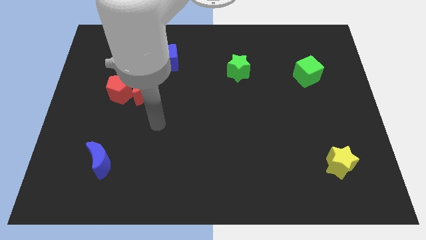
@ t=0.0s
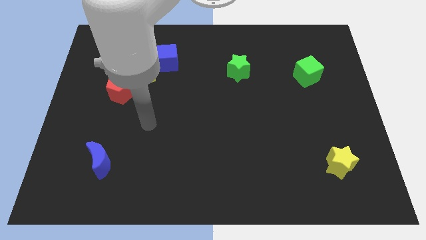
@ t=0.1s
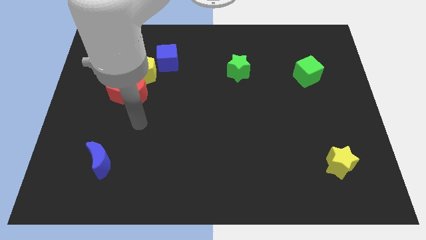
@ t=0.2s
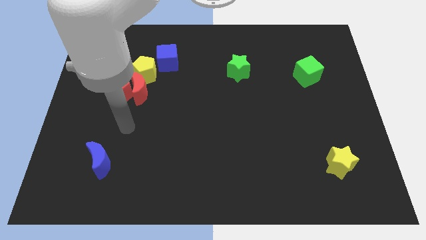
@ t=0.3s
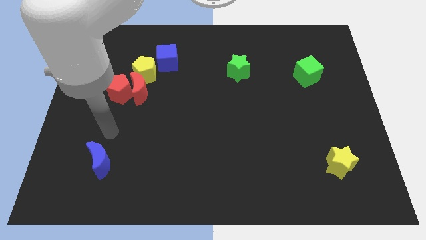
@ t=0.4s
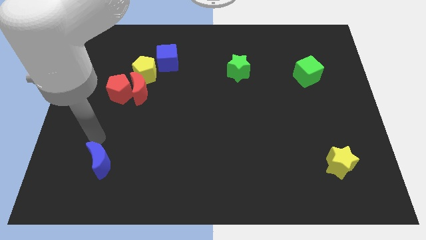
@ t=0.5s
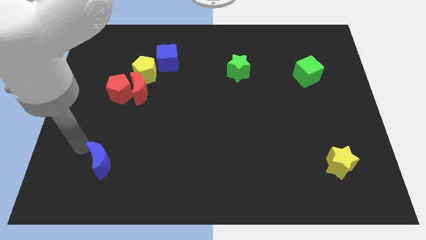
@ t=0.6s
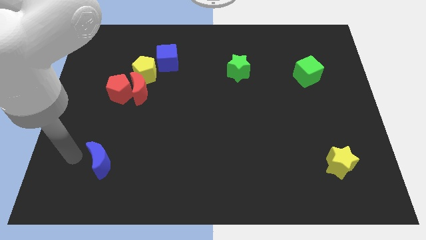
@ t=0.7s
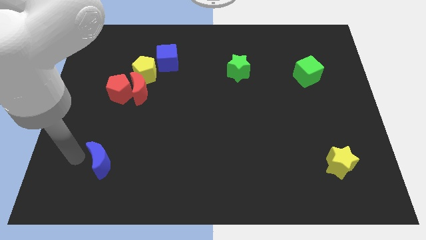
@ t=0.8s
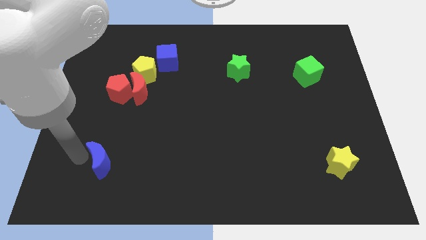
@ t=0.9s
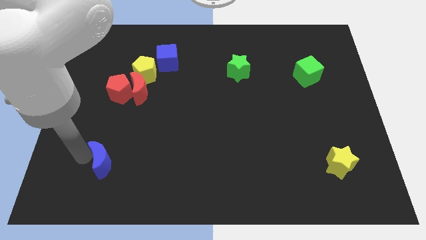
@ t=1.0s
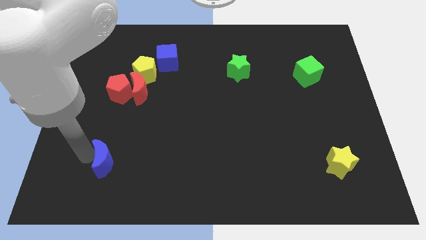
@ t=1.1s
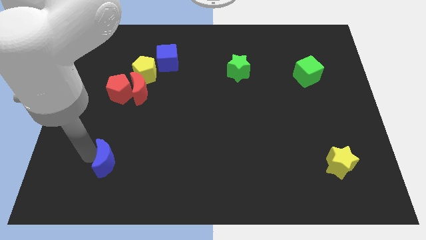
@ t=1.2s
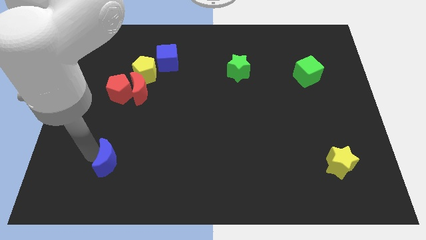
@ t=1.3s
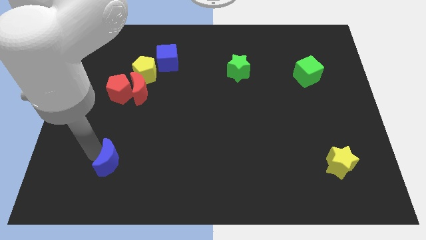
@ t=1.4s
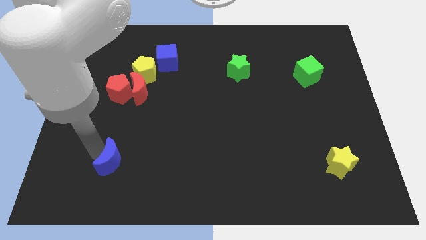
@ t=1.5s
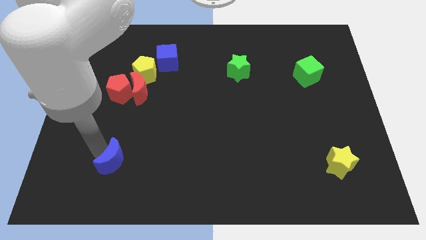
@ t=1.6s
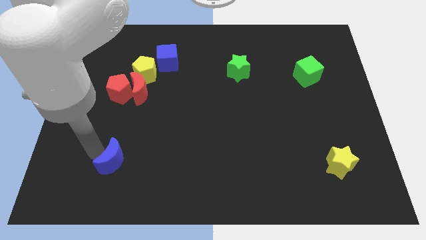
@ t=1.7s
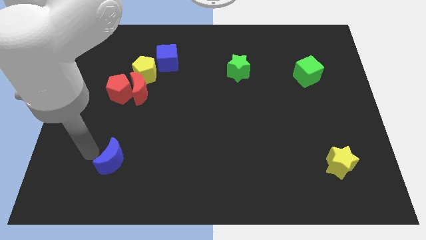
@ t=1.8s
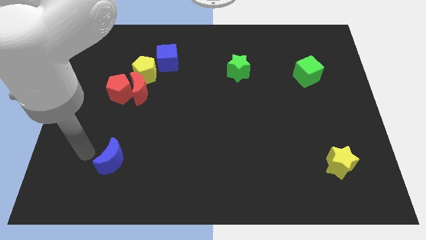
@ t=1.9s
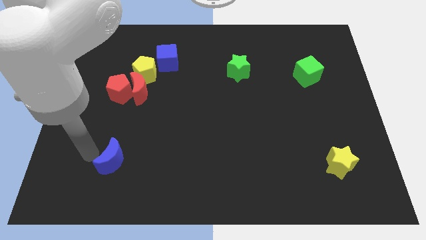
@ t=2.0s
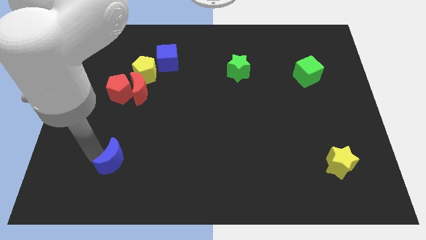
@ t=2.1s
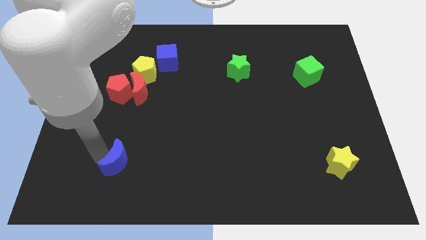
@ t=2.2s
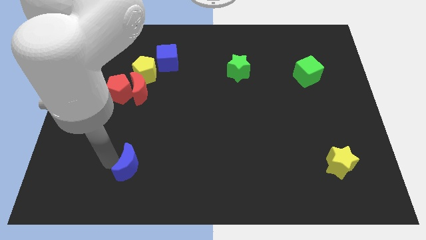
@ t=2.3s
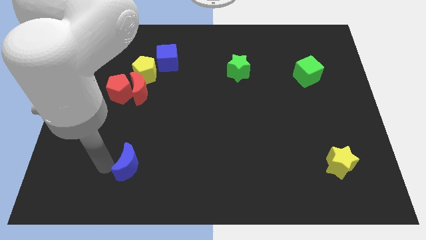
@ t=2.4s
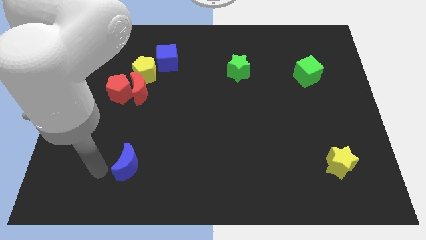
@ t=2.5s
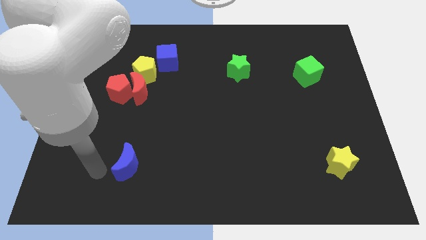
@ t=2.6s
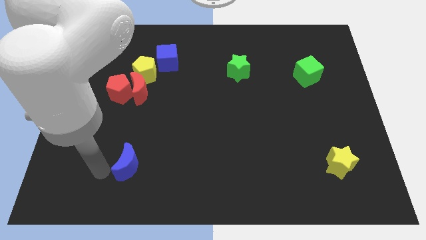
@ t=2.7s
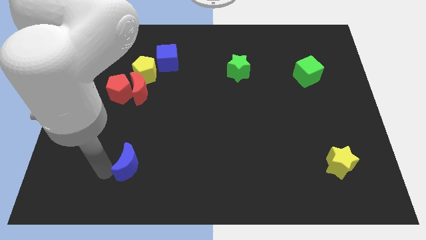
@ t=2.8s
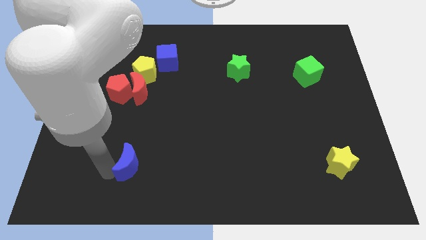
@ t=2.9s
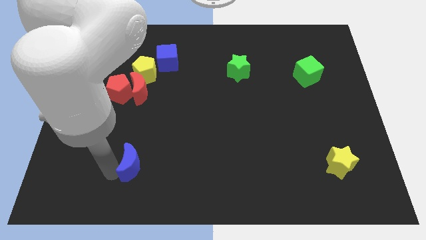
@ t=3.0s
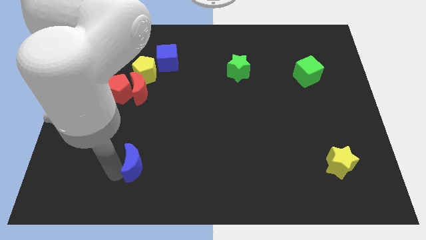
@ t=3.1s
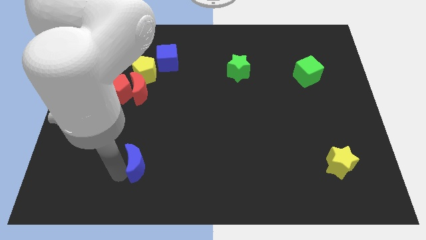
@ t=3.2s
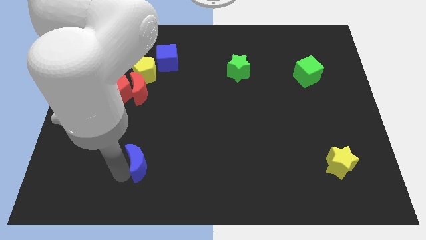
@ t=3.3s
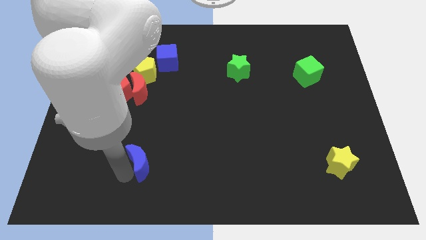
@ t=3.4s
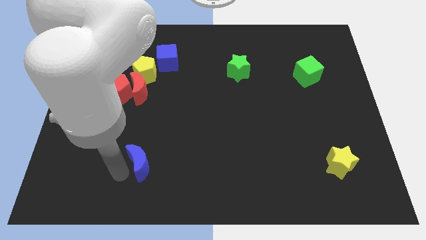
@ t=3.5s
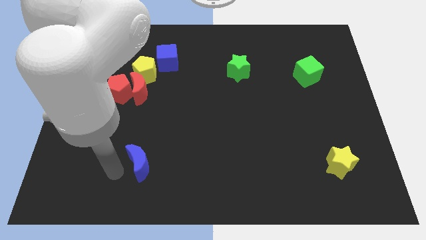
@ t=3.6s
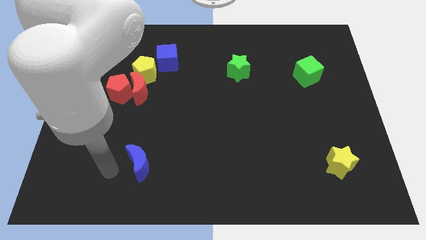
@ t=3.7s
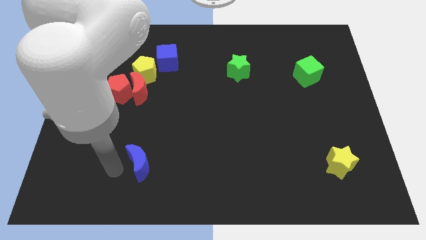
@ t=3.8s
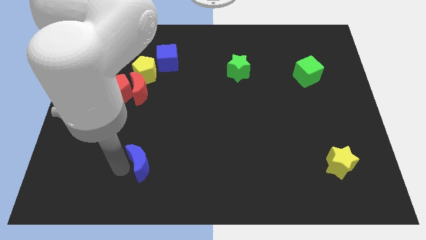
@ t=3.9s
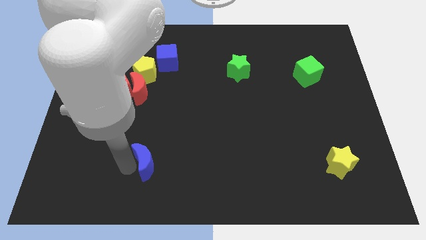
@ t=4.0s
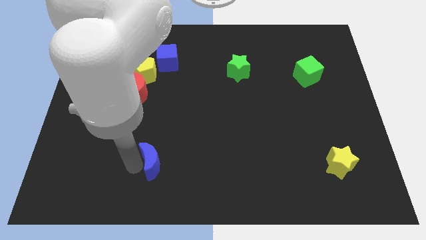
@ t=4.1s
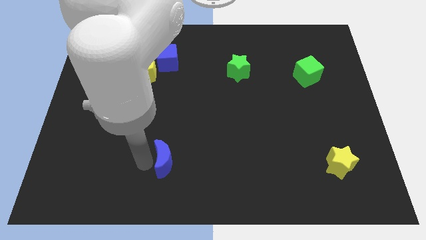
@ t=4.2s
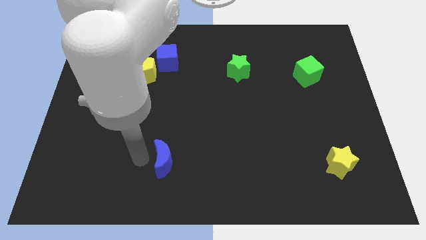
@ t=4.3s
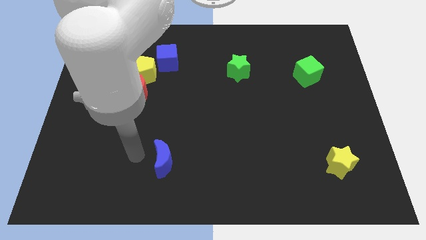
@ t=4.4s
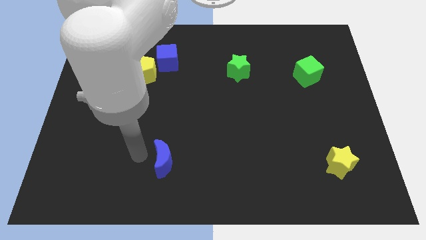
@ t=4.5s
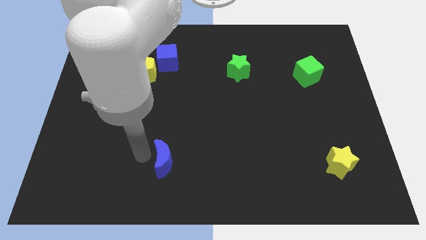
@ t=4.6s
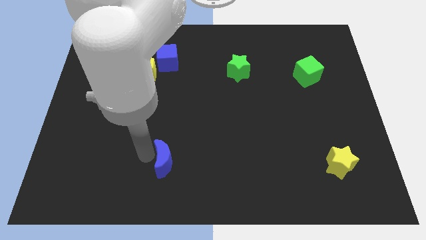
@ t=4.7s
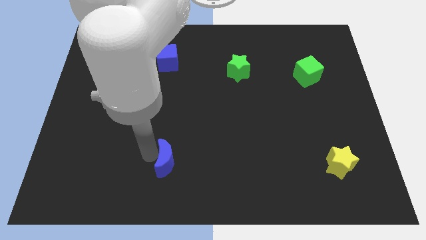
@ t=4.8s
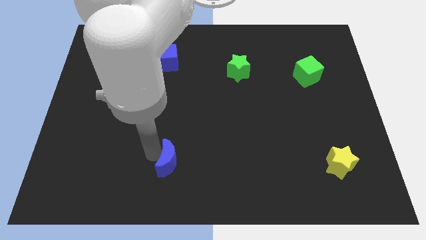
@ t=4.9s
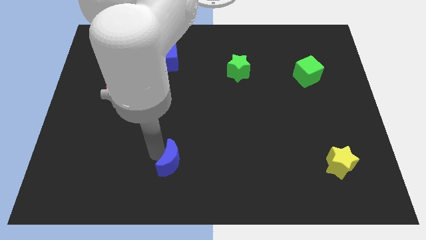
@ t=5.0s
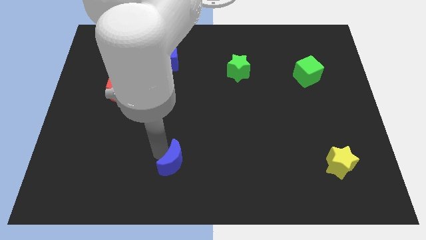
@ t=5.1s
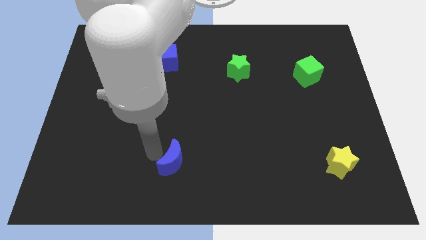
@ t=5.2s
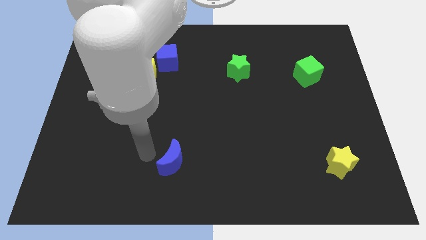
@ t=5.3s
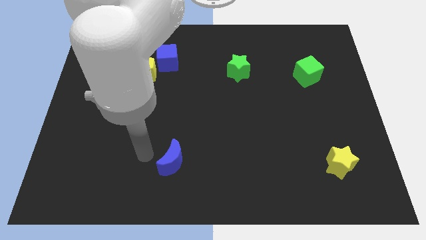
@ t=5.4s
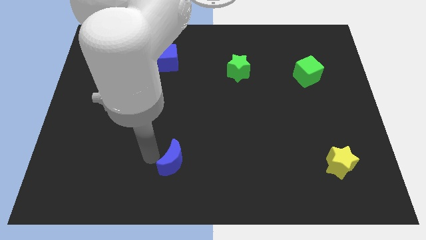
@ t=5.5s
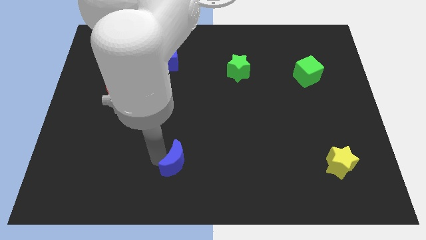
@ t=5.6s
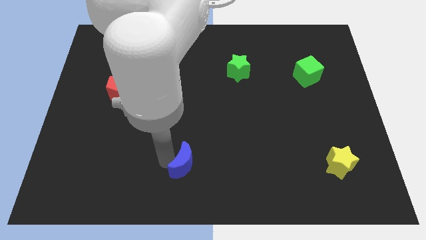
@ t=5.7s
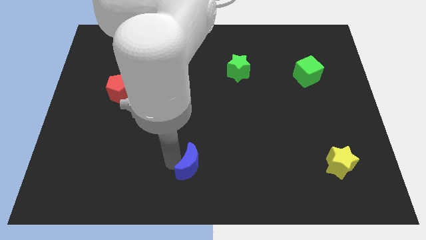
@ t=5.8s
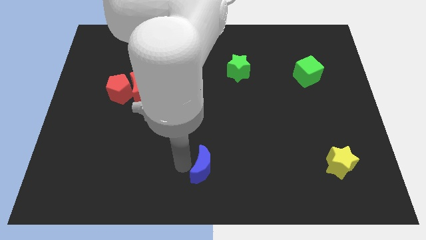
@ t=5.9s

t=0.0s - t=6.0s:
move the blue moon to the right

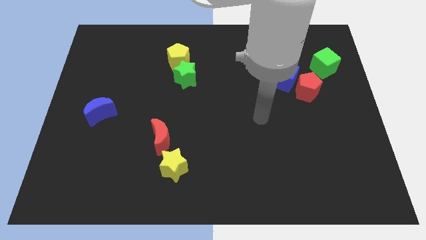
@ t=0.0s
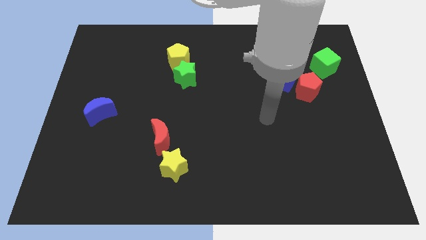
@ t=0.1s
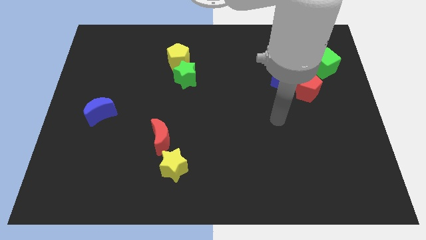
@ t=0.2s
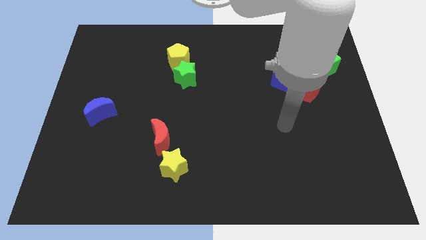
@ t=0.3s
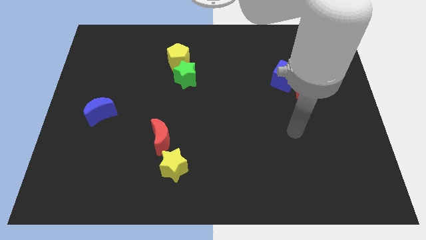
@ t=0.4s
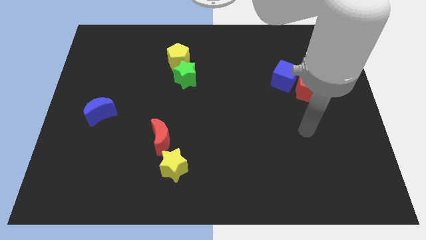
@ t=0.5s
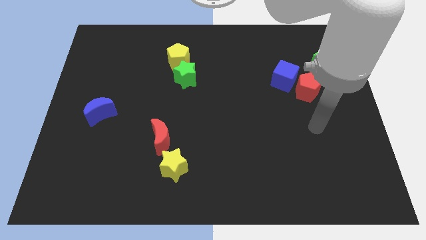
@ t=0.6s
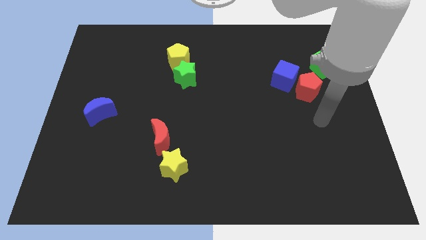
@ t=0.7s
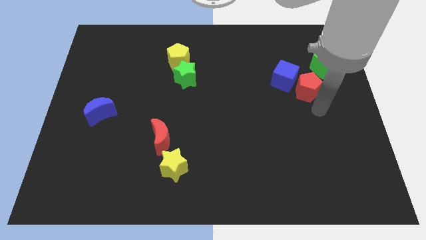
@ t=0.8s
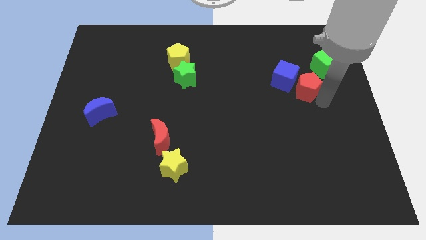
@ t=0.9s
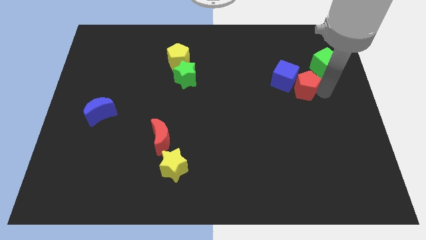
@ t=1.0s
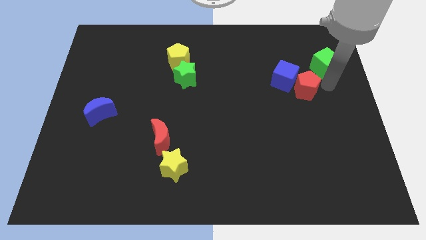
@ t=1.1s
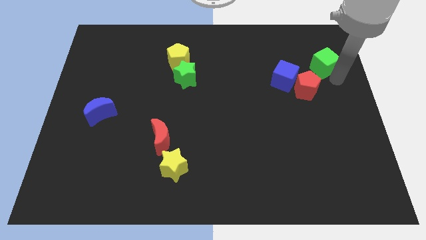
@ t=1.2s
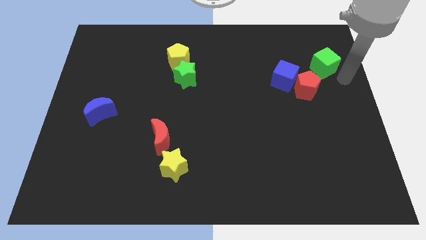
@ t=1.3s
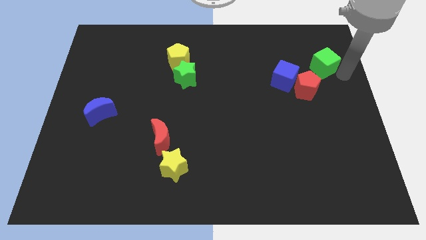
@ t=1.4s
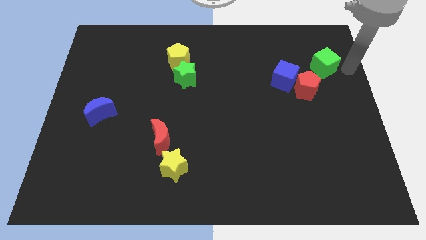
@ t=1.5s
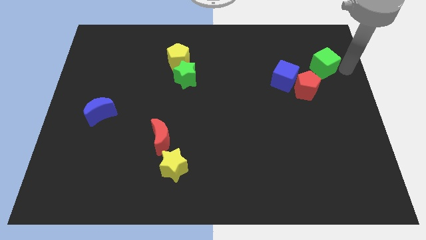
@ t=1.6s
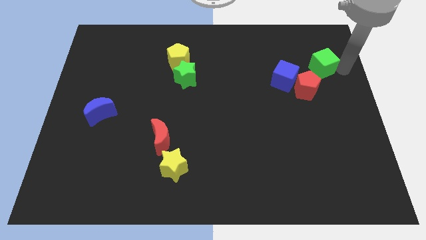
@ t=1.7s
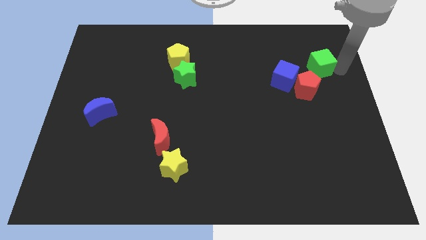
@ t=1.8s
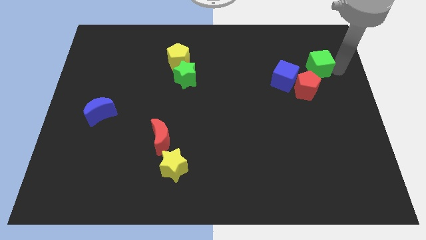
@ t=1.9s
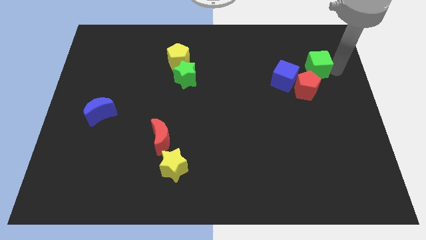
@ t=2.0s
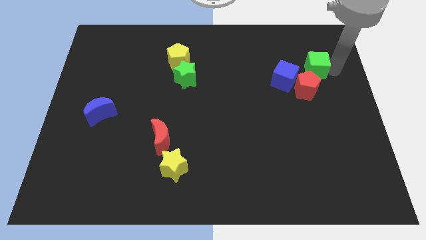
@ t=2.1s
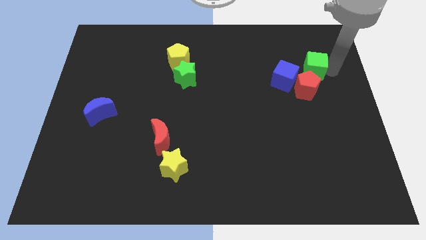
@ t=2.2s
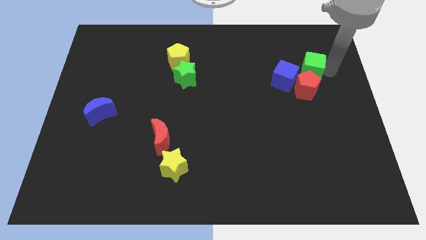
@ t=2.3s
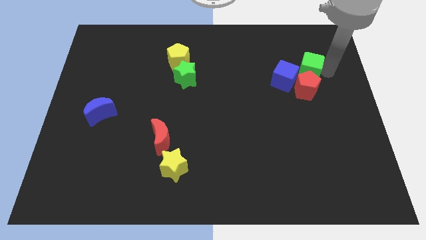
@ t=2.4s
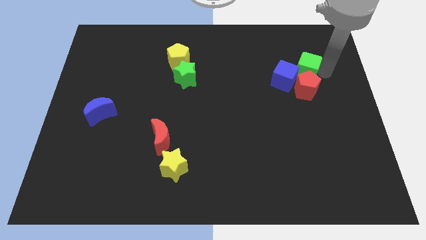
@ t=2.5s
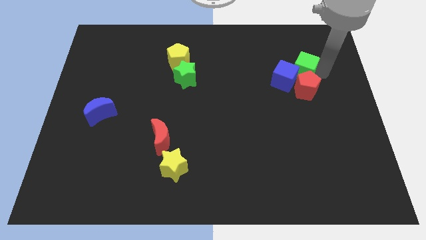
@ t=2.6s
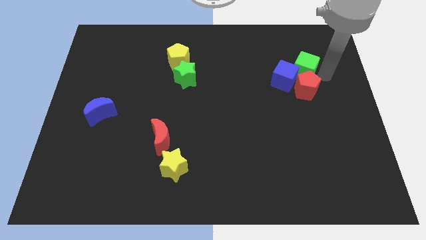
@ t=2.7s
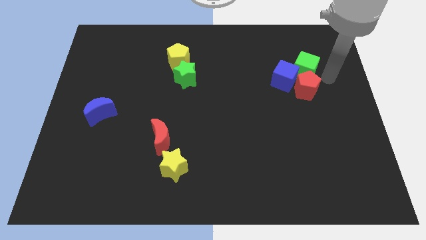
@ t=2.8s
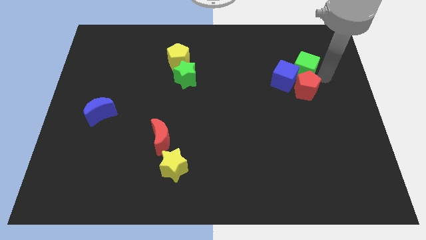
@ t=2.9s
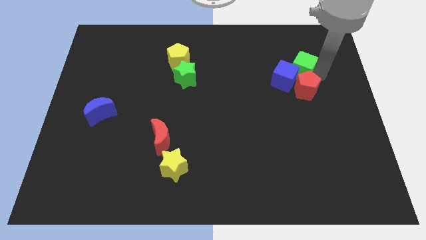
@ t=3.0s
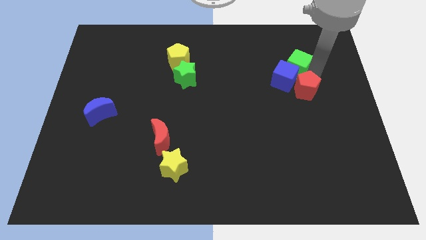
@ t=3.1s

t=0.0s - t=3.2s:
slide the green cube a little bit to the left
